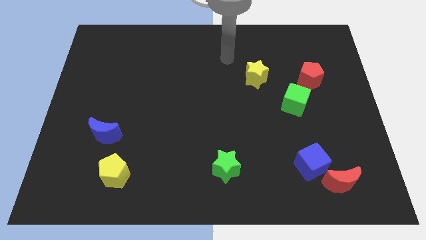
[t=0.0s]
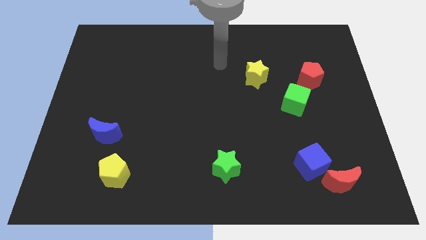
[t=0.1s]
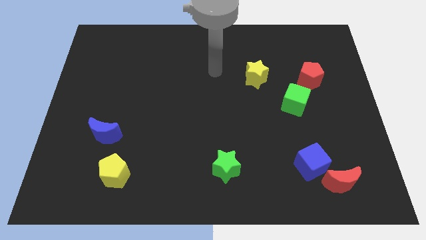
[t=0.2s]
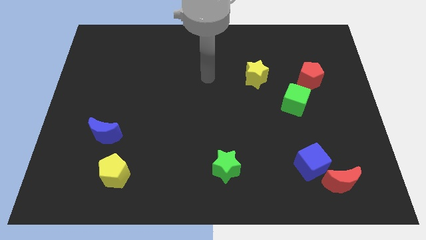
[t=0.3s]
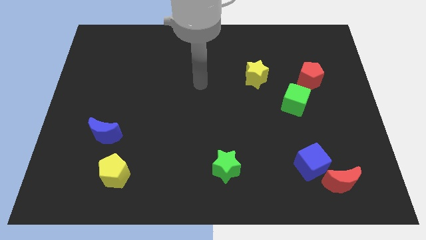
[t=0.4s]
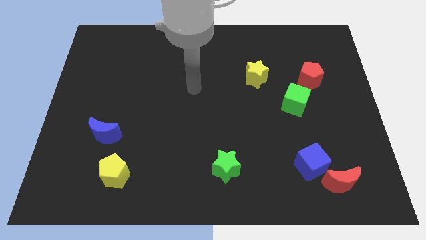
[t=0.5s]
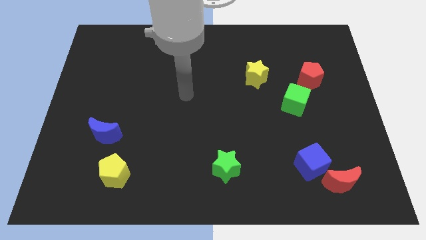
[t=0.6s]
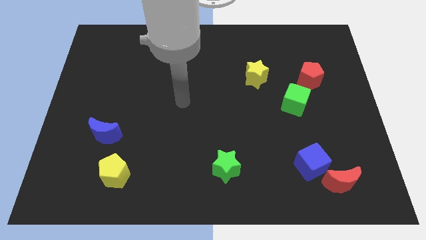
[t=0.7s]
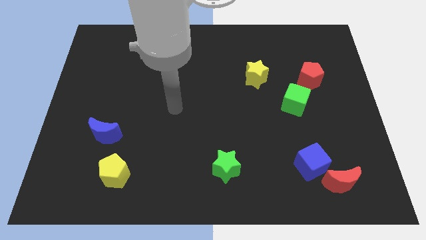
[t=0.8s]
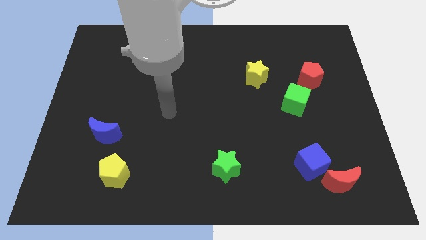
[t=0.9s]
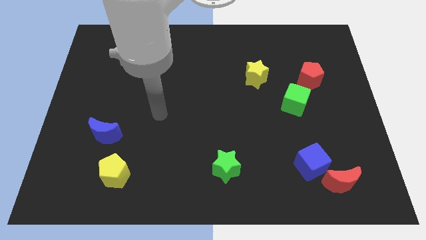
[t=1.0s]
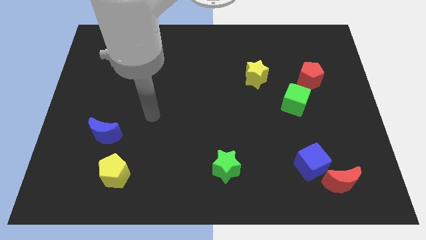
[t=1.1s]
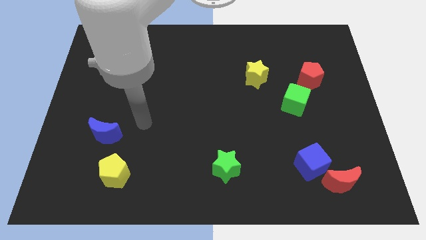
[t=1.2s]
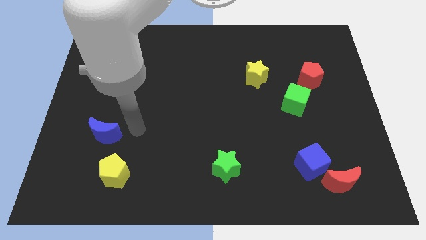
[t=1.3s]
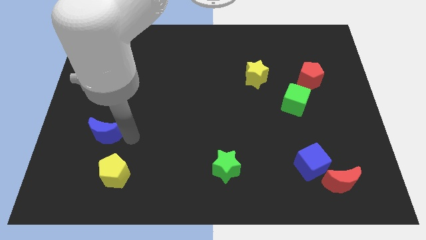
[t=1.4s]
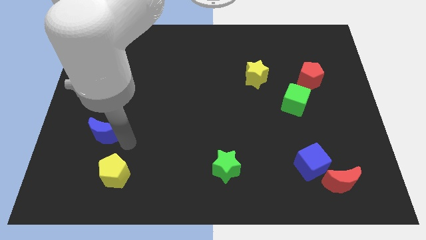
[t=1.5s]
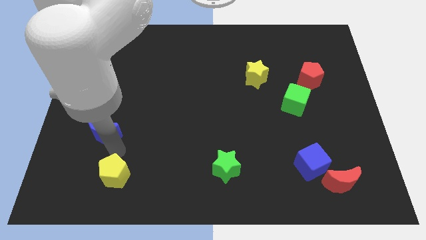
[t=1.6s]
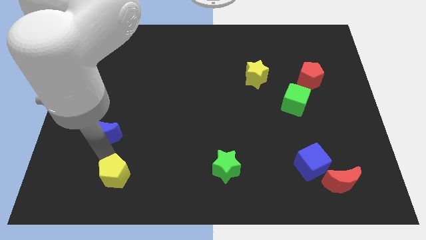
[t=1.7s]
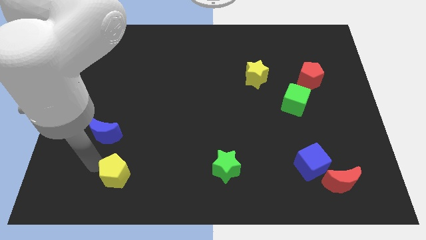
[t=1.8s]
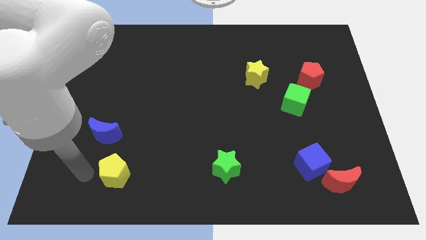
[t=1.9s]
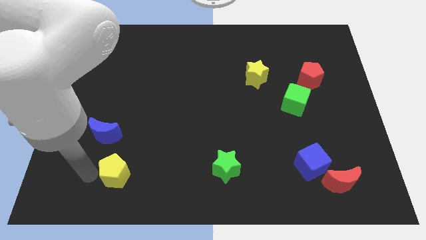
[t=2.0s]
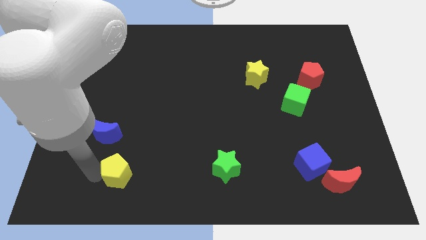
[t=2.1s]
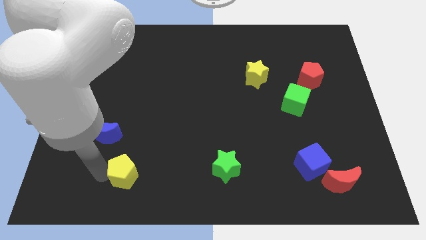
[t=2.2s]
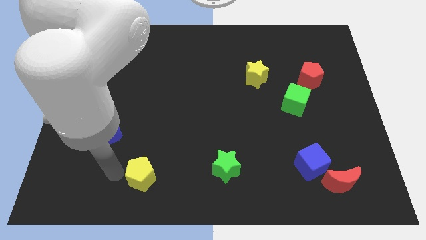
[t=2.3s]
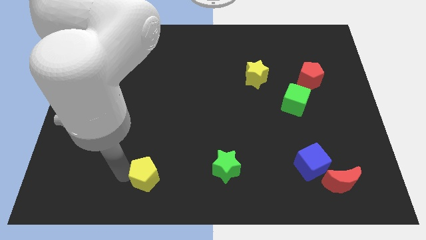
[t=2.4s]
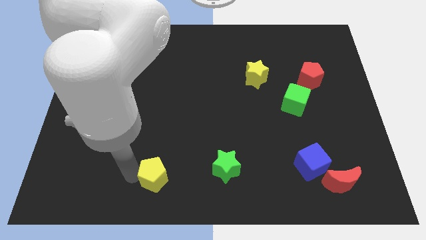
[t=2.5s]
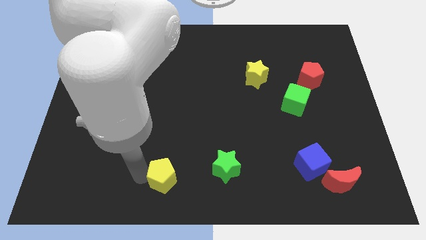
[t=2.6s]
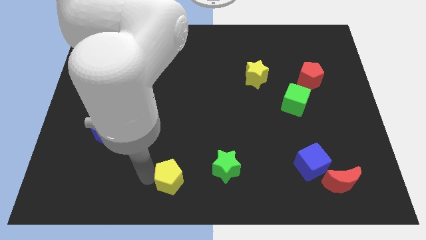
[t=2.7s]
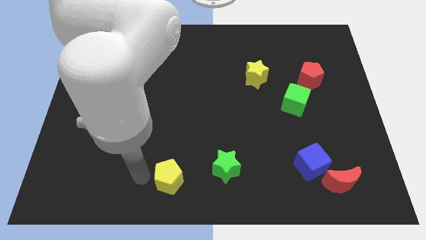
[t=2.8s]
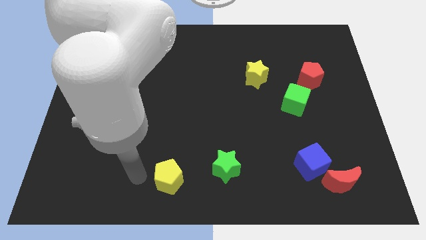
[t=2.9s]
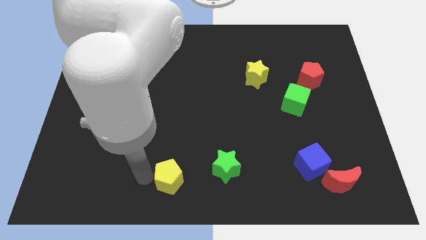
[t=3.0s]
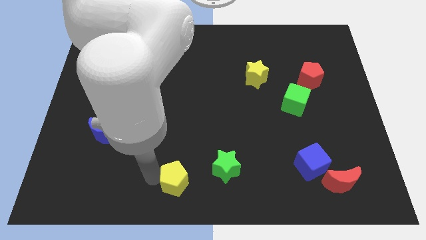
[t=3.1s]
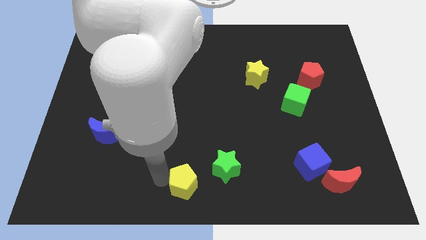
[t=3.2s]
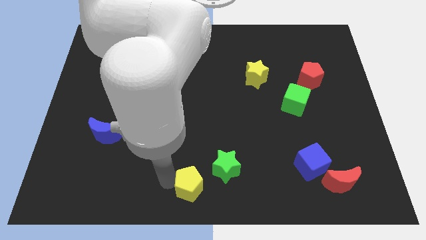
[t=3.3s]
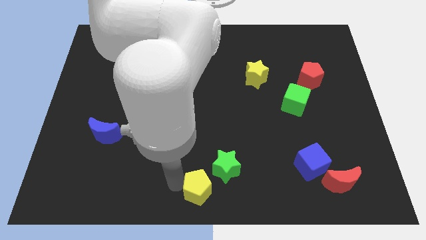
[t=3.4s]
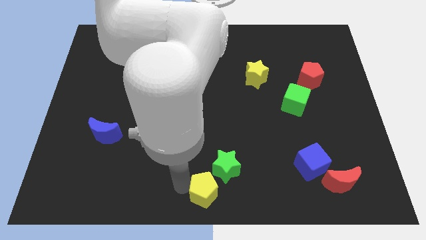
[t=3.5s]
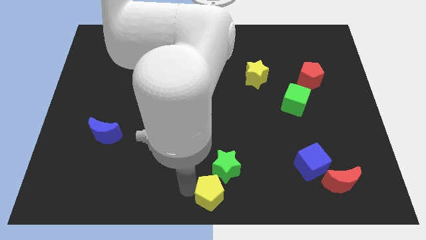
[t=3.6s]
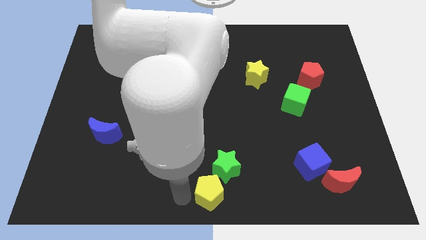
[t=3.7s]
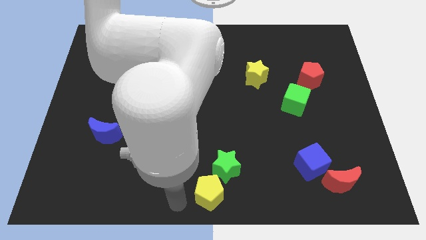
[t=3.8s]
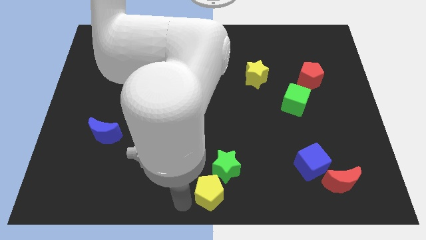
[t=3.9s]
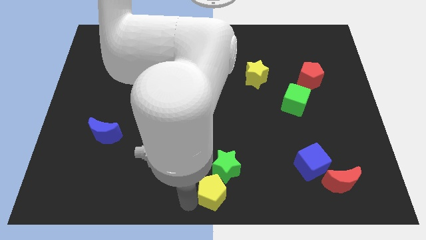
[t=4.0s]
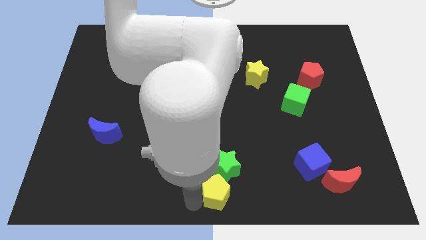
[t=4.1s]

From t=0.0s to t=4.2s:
move the yellow pentagon right

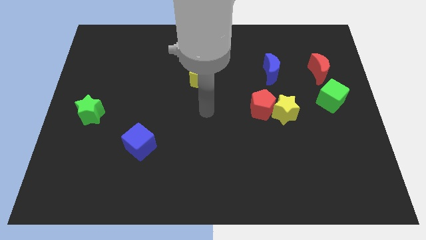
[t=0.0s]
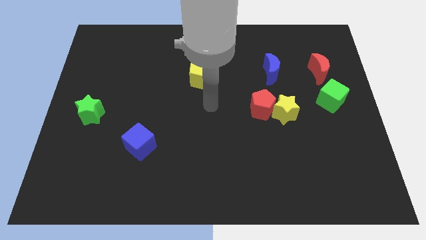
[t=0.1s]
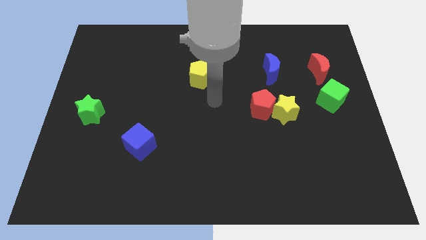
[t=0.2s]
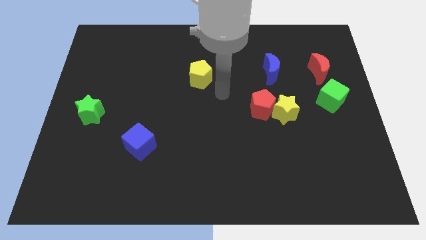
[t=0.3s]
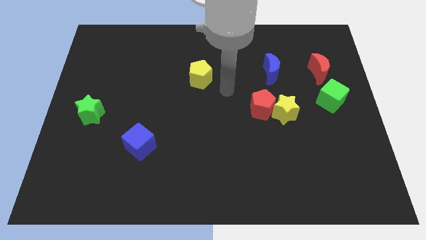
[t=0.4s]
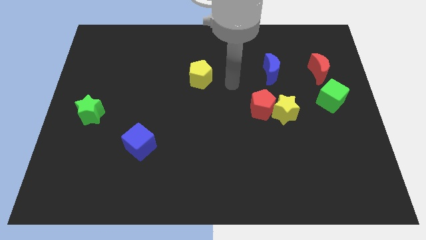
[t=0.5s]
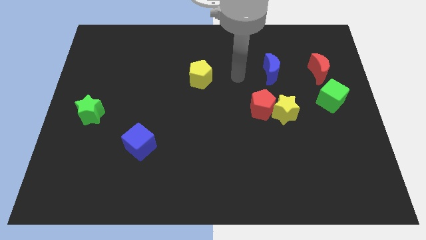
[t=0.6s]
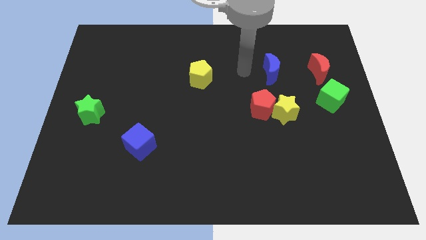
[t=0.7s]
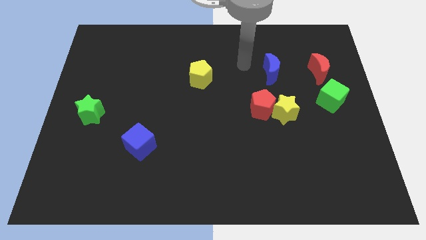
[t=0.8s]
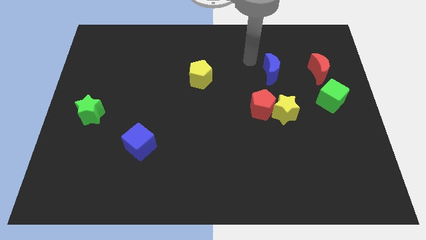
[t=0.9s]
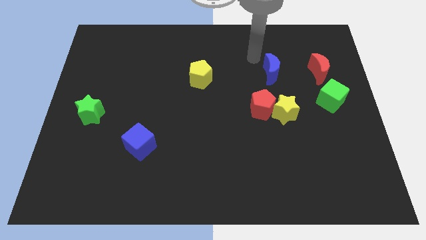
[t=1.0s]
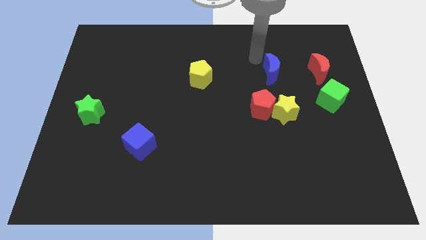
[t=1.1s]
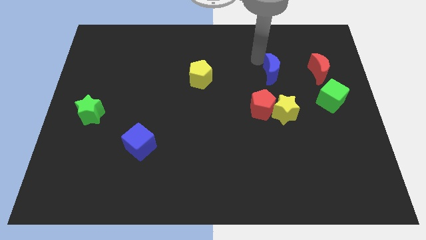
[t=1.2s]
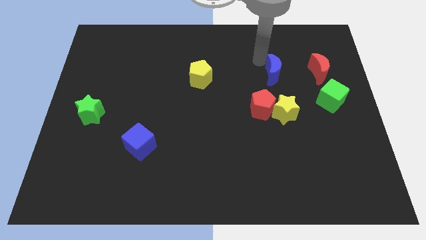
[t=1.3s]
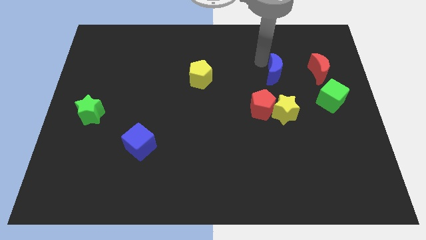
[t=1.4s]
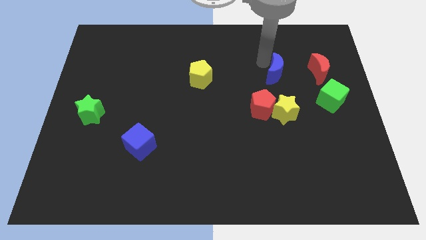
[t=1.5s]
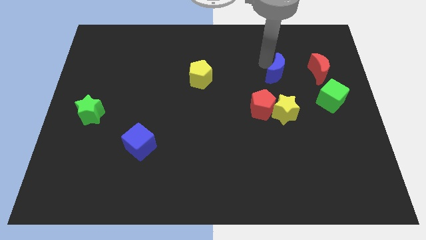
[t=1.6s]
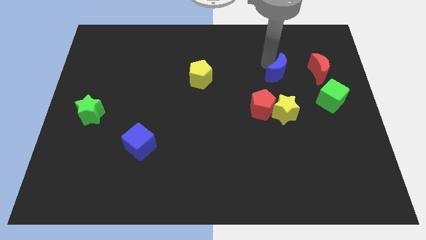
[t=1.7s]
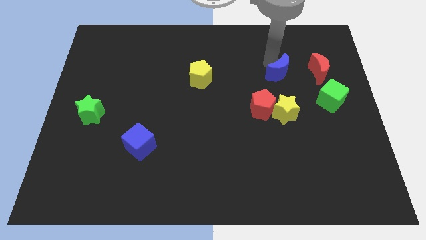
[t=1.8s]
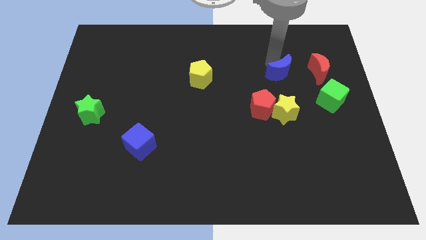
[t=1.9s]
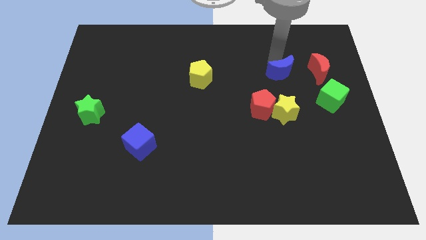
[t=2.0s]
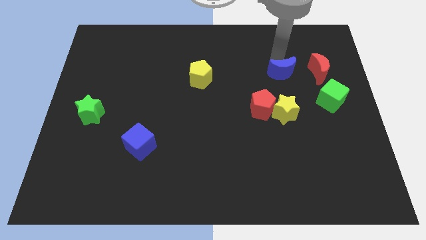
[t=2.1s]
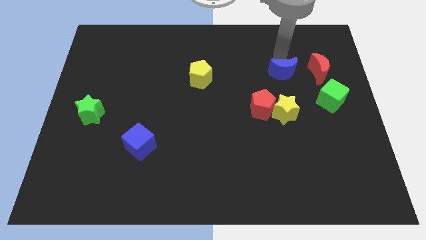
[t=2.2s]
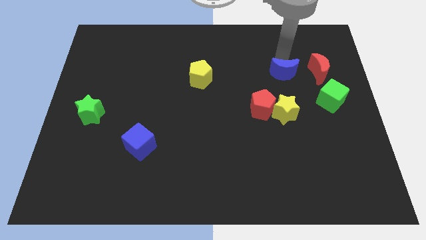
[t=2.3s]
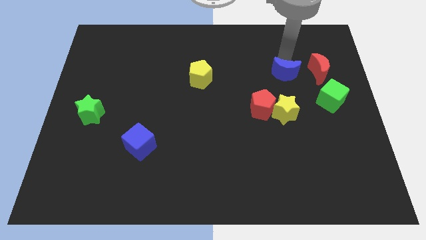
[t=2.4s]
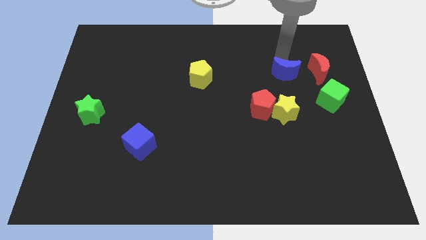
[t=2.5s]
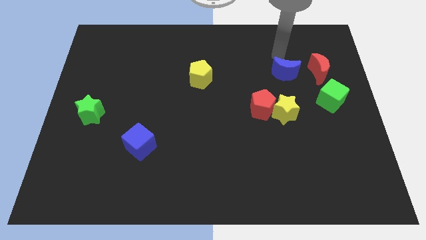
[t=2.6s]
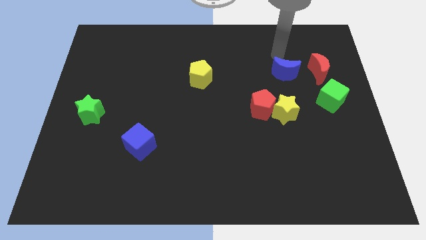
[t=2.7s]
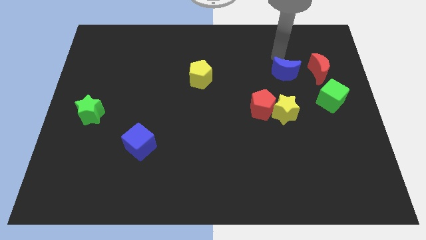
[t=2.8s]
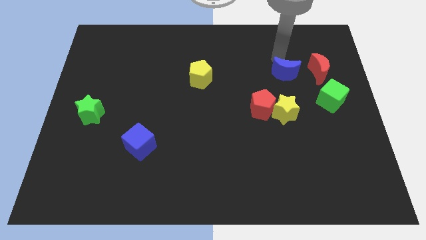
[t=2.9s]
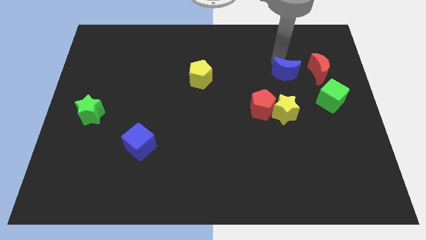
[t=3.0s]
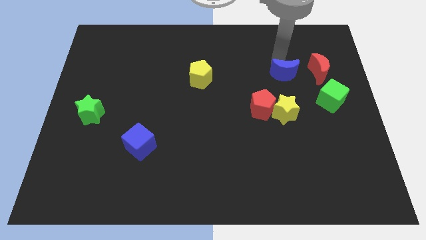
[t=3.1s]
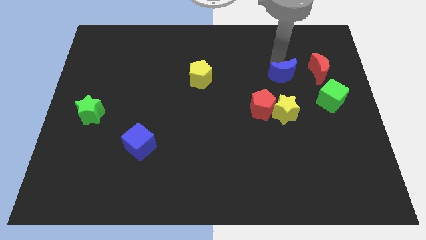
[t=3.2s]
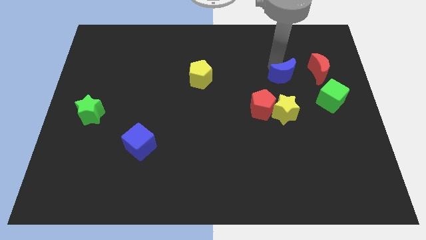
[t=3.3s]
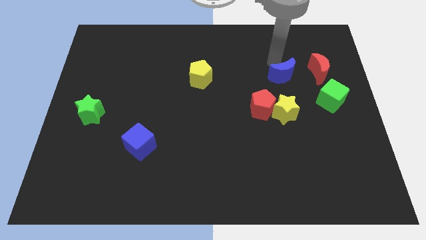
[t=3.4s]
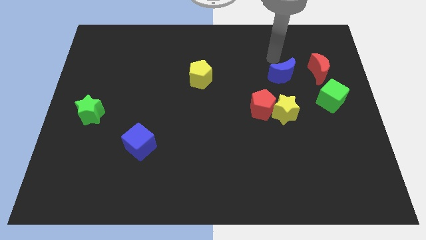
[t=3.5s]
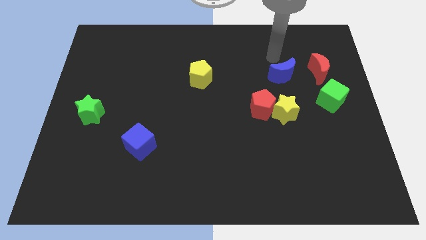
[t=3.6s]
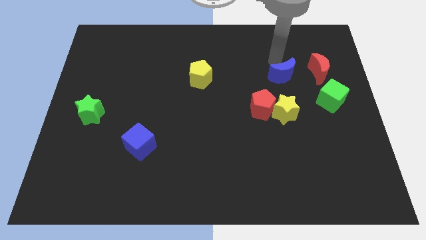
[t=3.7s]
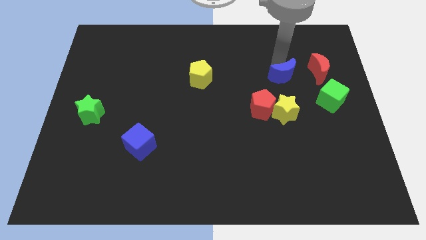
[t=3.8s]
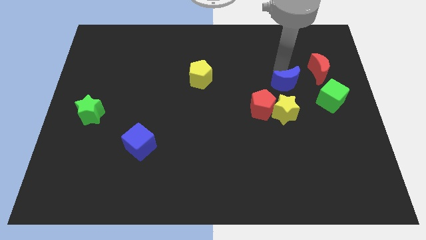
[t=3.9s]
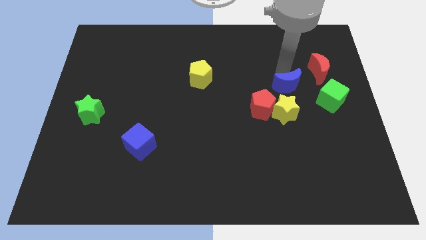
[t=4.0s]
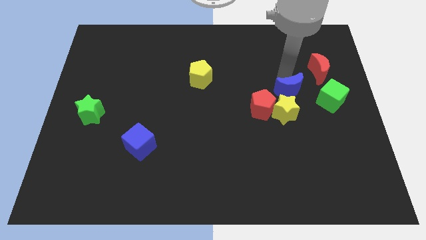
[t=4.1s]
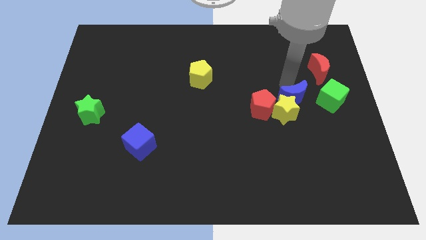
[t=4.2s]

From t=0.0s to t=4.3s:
move the blue moon downwards a little bit
